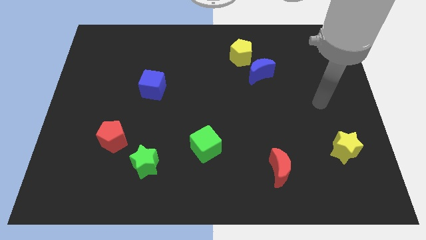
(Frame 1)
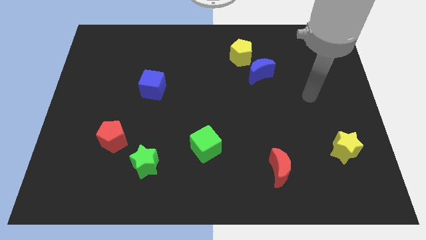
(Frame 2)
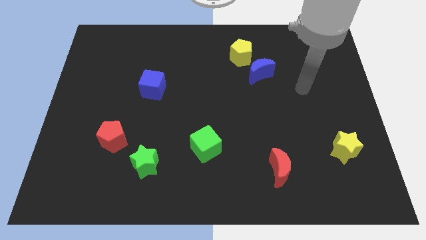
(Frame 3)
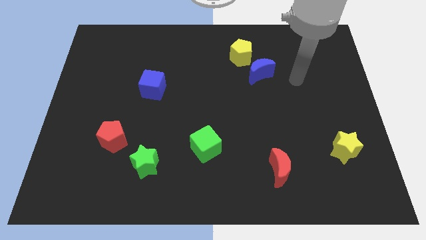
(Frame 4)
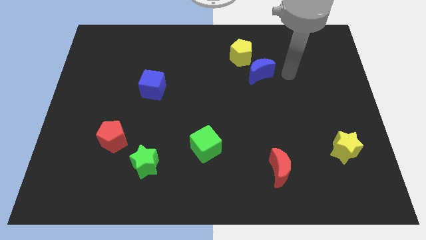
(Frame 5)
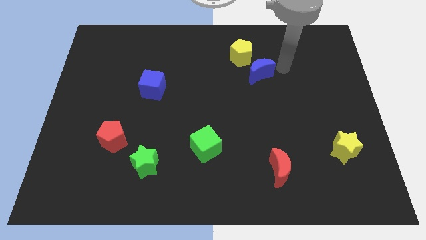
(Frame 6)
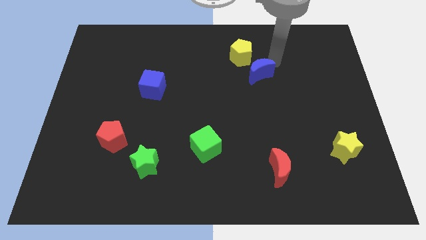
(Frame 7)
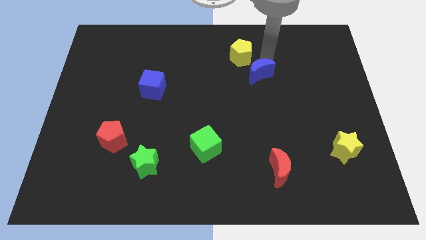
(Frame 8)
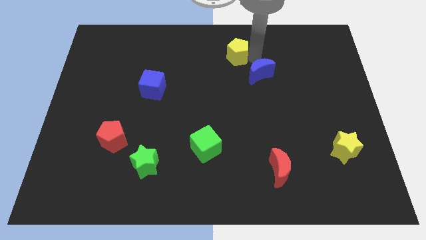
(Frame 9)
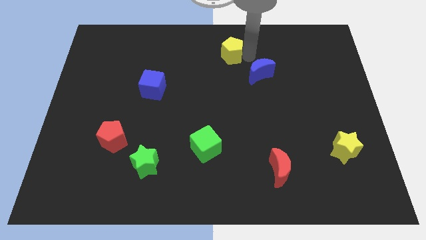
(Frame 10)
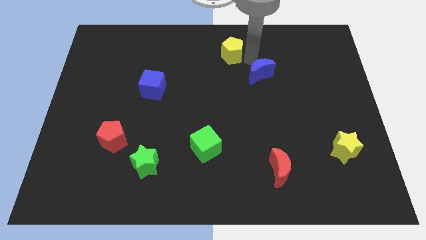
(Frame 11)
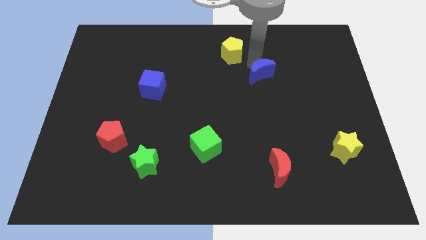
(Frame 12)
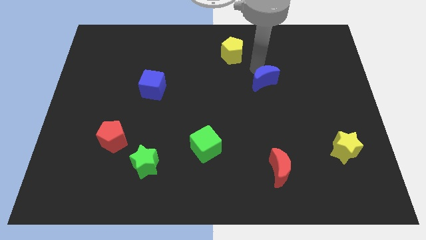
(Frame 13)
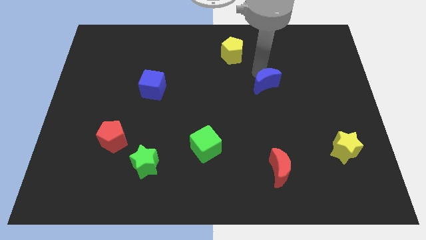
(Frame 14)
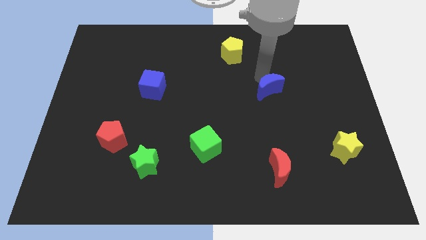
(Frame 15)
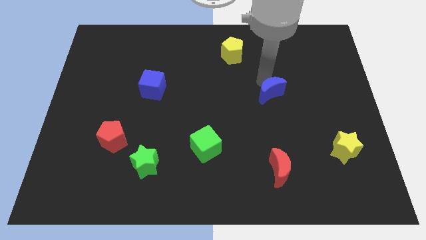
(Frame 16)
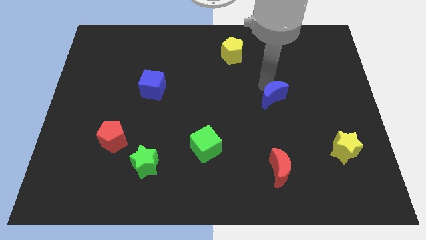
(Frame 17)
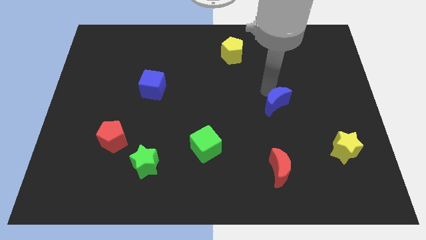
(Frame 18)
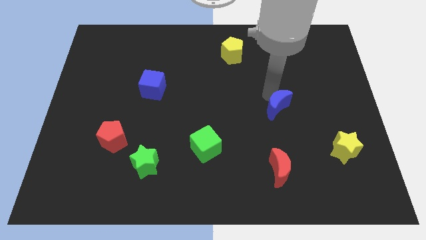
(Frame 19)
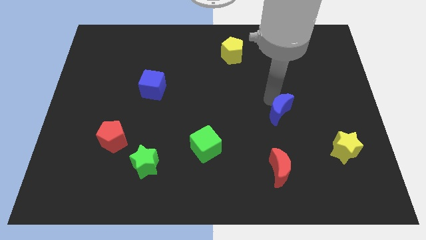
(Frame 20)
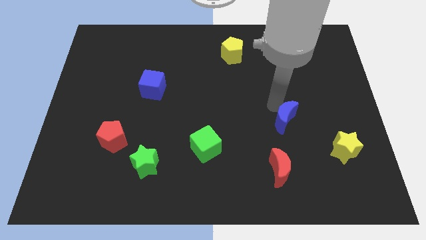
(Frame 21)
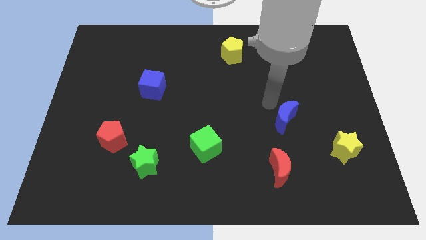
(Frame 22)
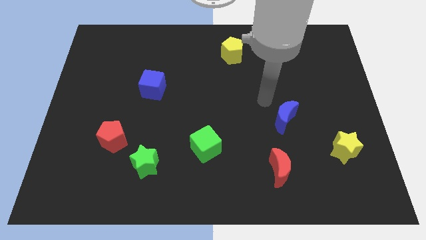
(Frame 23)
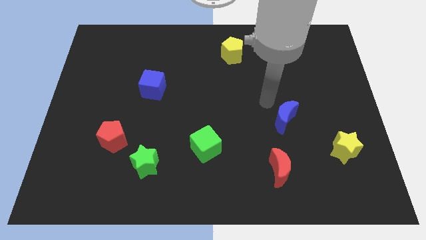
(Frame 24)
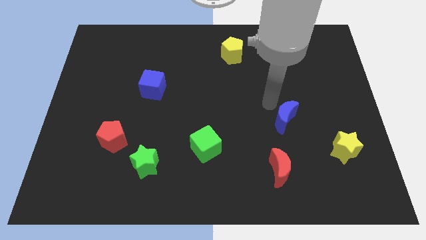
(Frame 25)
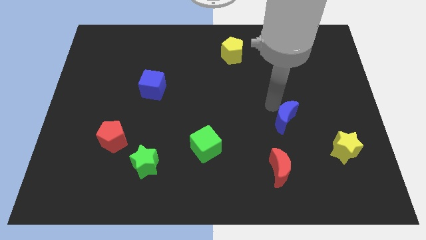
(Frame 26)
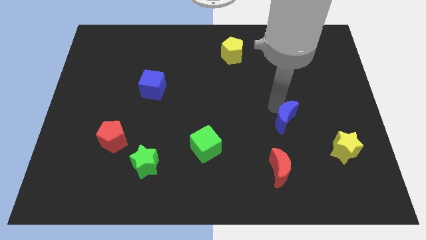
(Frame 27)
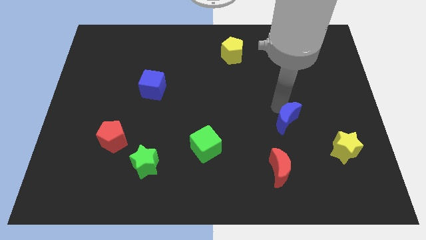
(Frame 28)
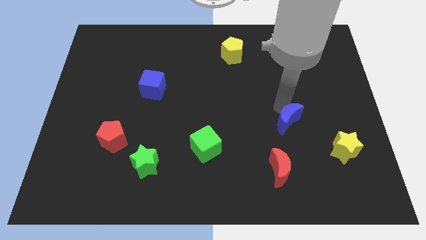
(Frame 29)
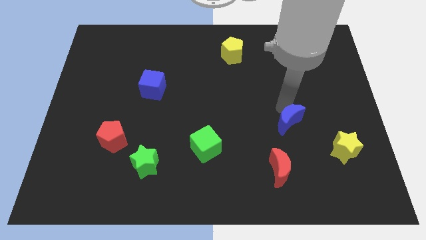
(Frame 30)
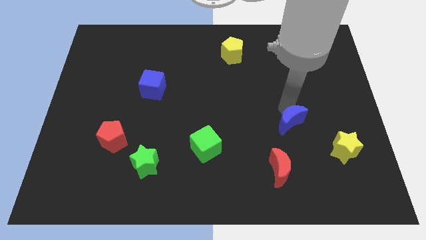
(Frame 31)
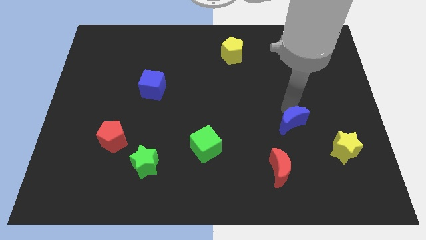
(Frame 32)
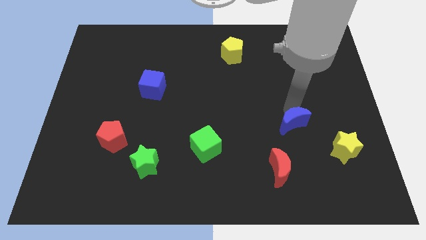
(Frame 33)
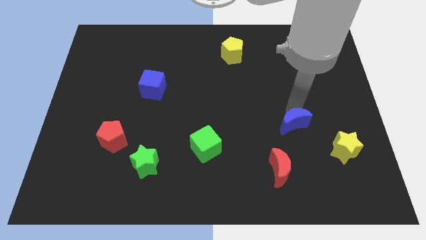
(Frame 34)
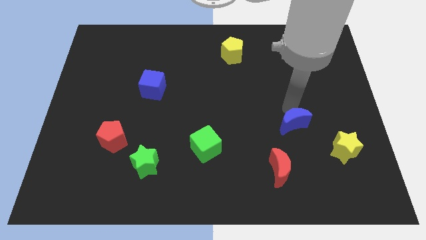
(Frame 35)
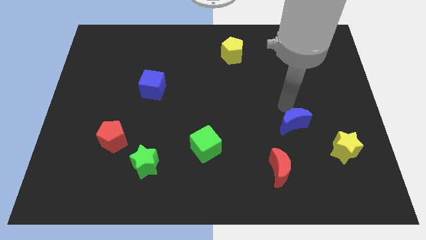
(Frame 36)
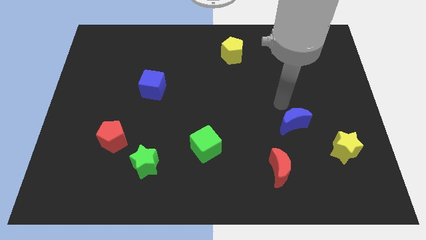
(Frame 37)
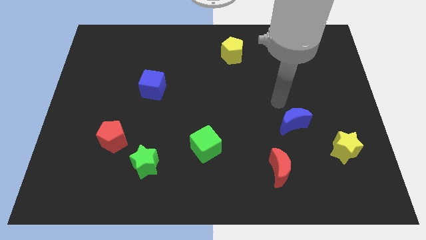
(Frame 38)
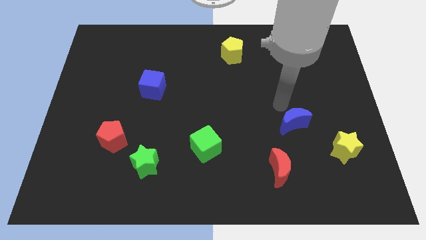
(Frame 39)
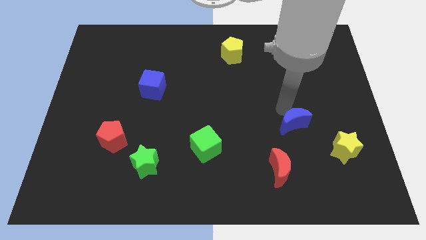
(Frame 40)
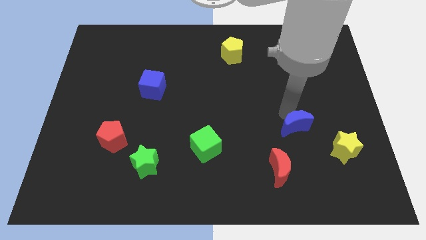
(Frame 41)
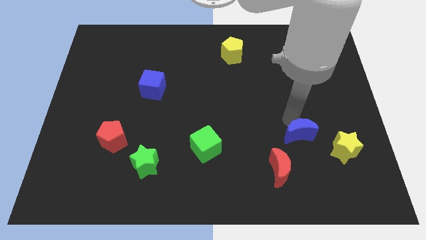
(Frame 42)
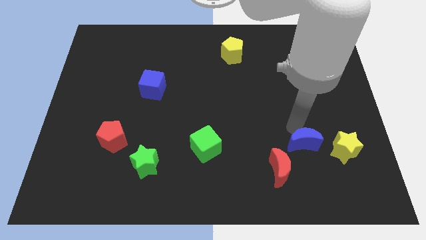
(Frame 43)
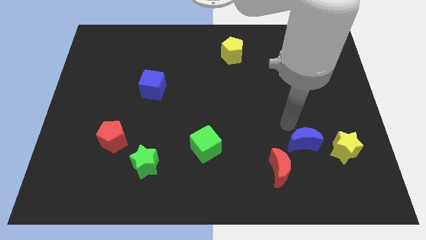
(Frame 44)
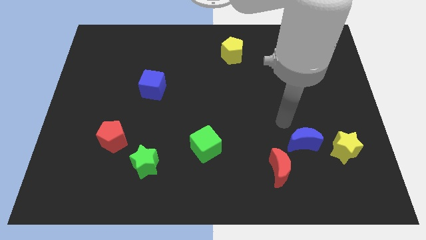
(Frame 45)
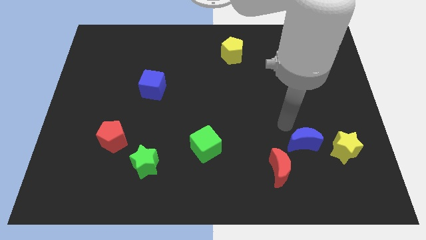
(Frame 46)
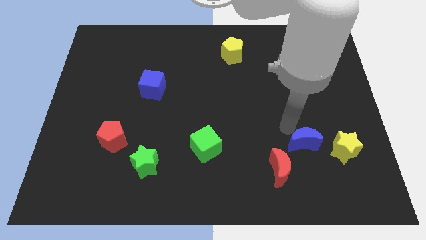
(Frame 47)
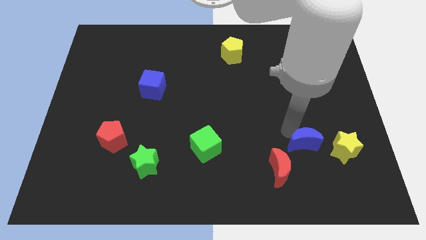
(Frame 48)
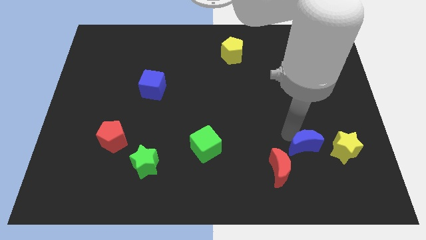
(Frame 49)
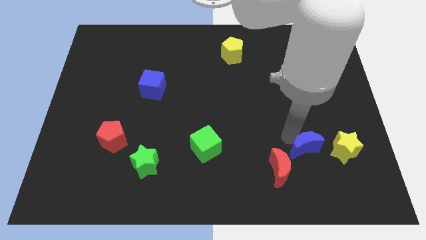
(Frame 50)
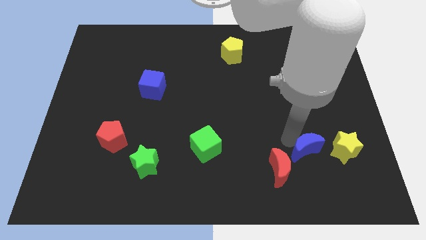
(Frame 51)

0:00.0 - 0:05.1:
push the blue moon just right of the red moon

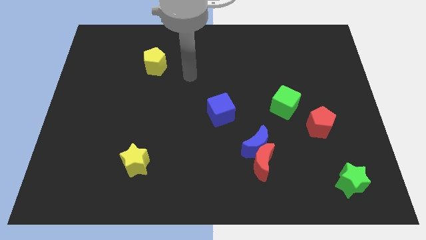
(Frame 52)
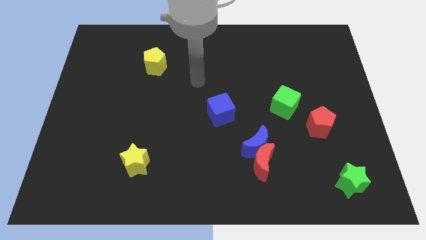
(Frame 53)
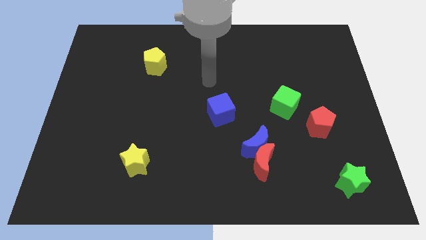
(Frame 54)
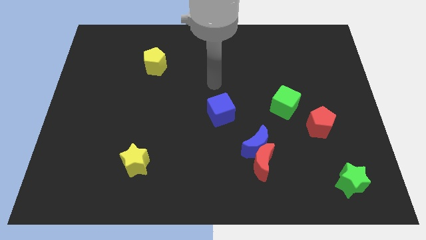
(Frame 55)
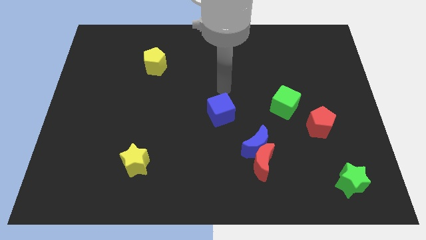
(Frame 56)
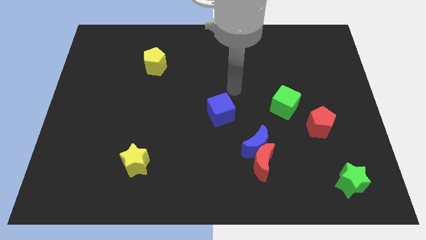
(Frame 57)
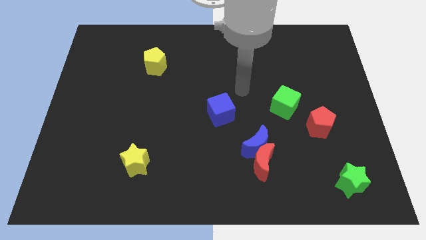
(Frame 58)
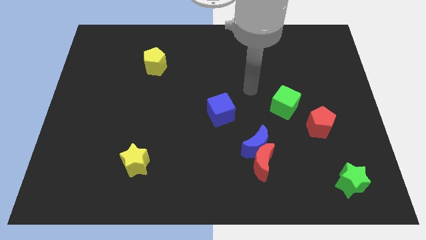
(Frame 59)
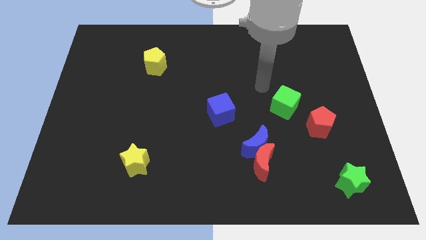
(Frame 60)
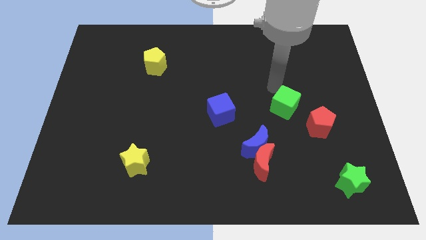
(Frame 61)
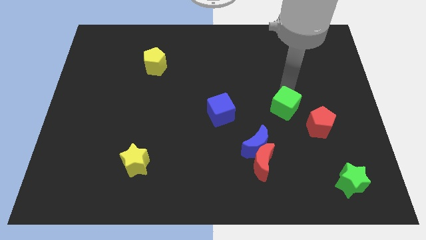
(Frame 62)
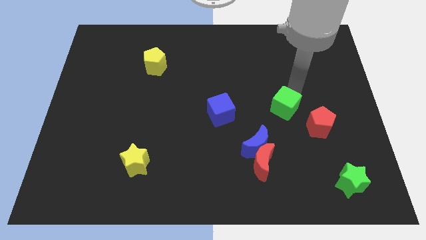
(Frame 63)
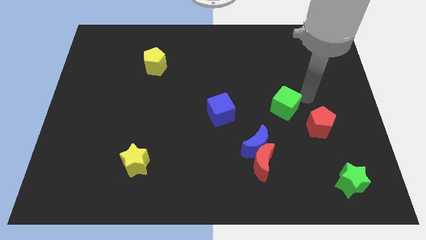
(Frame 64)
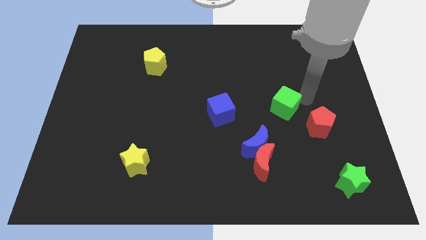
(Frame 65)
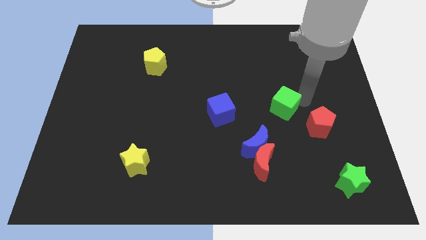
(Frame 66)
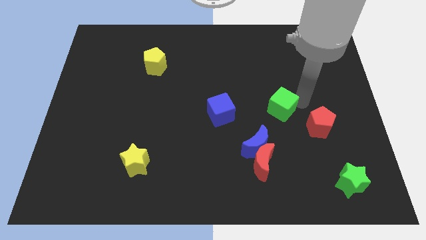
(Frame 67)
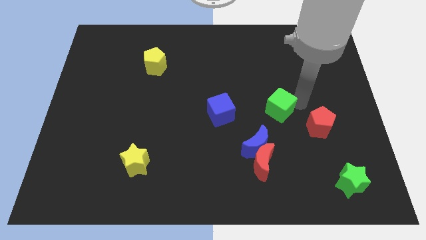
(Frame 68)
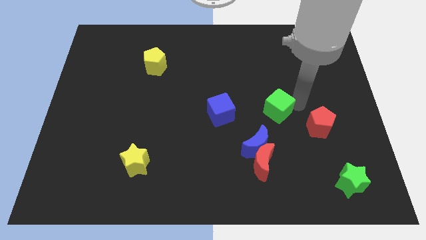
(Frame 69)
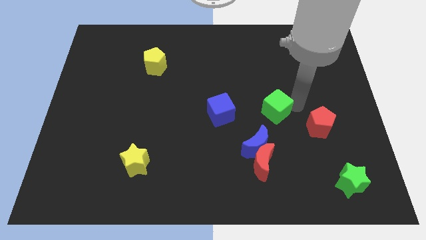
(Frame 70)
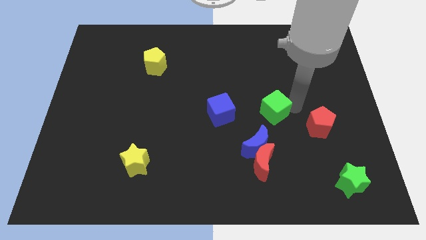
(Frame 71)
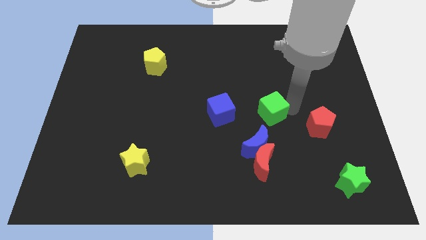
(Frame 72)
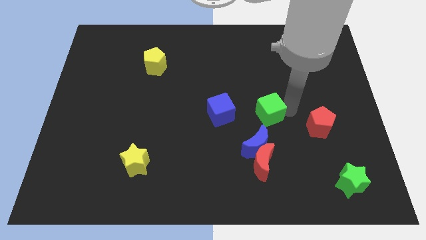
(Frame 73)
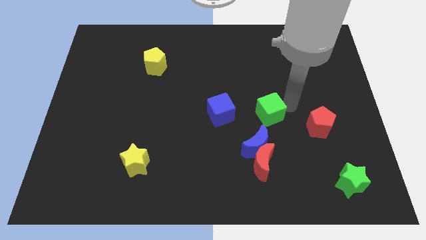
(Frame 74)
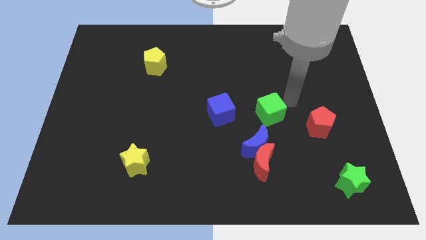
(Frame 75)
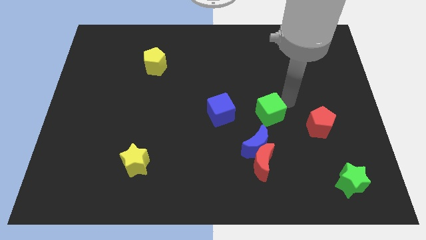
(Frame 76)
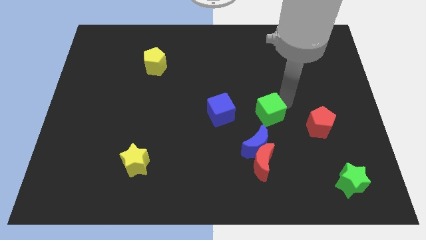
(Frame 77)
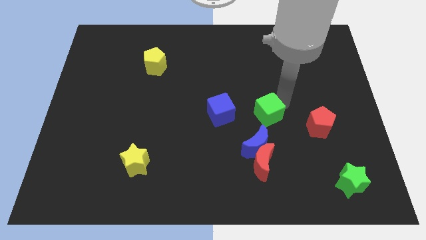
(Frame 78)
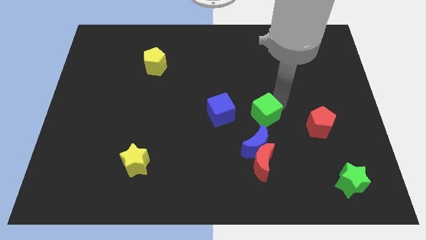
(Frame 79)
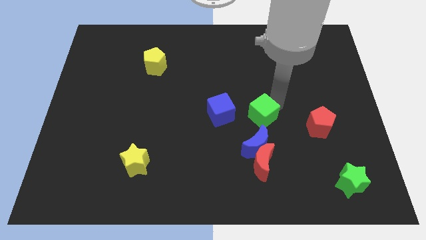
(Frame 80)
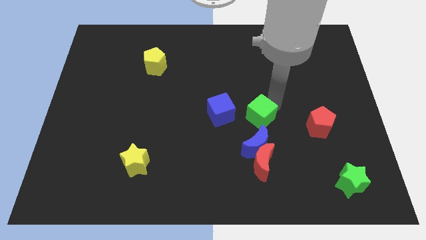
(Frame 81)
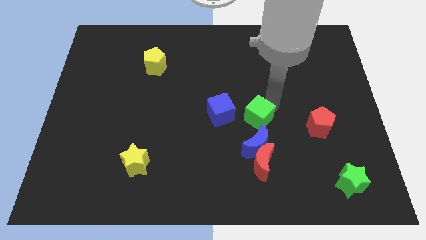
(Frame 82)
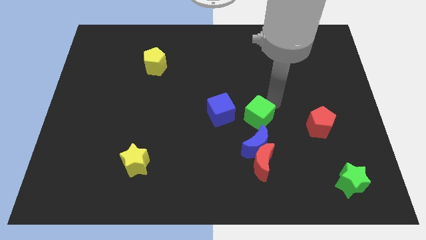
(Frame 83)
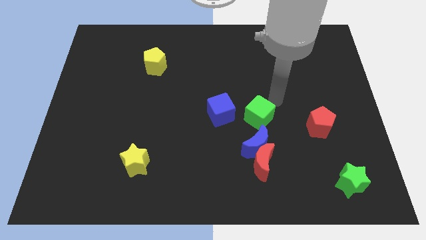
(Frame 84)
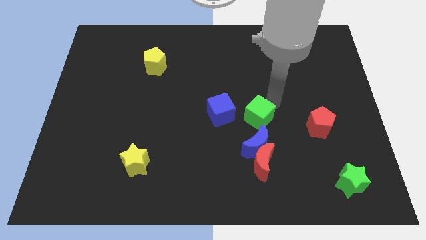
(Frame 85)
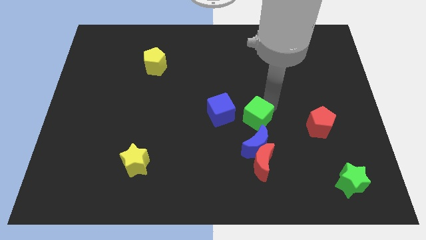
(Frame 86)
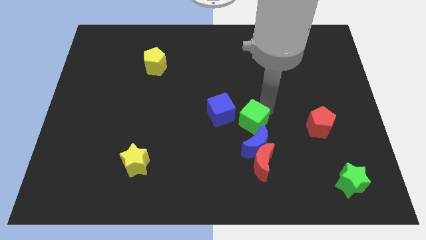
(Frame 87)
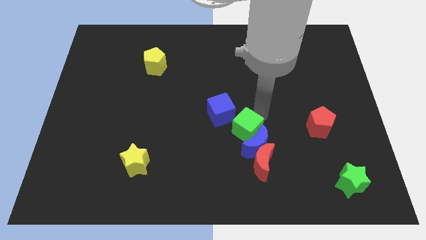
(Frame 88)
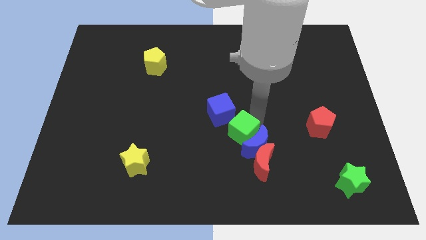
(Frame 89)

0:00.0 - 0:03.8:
slide the green cube to the left of the blue moon
